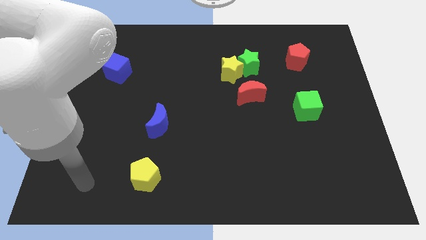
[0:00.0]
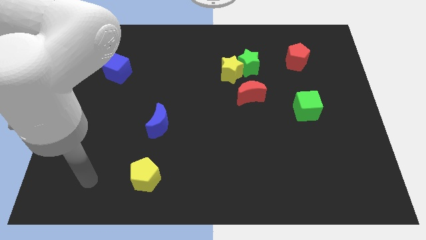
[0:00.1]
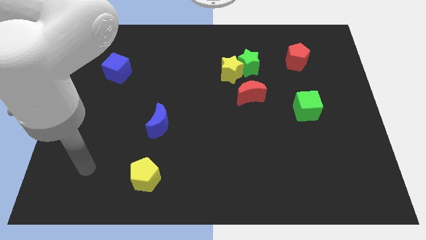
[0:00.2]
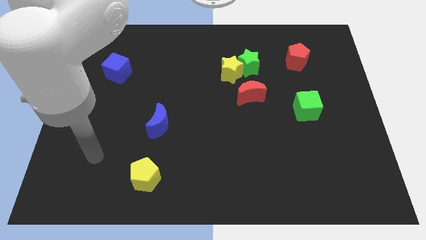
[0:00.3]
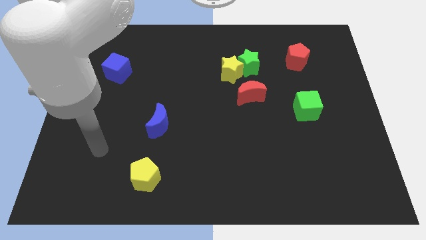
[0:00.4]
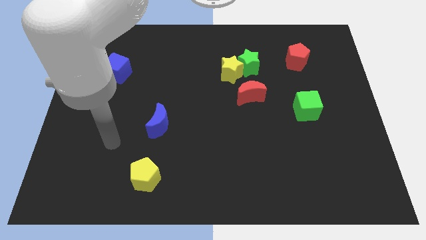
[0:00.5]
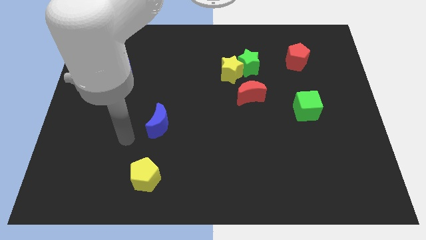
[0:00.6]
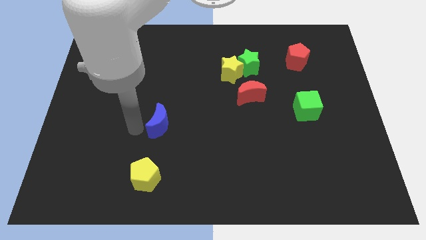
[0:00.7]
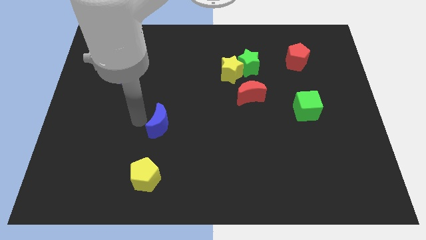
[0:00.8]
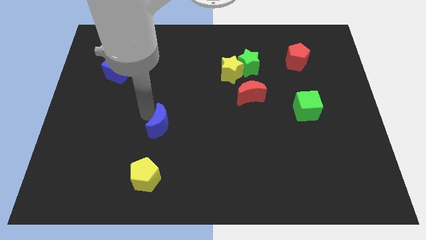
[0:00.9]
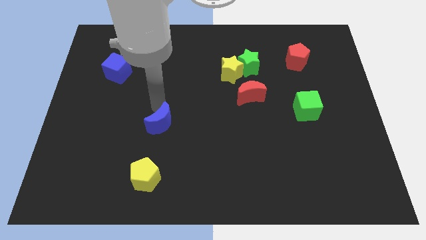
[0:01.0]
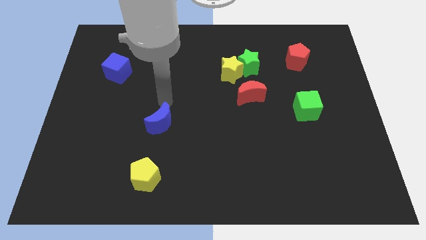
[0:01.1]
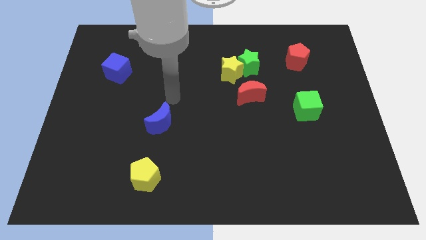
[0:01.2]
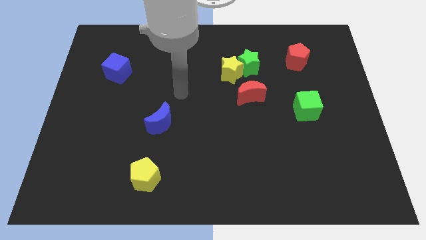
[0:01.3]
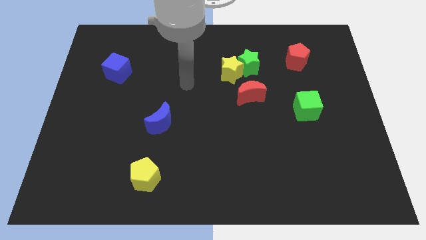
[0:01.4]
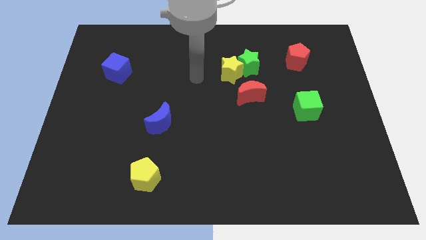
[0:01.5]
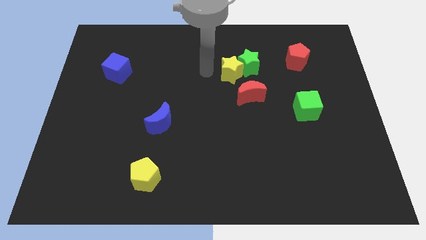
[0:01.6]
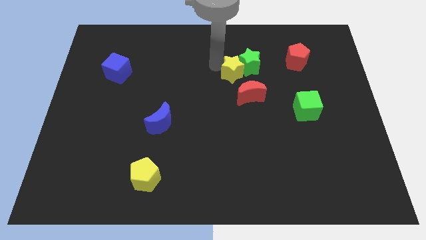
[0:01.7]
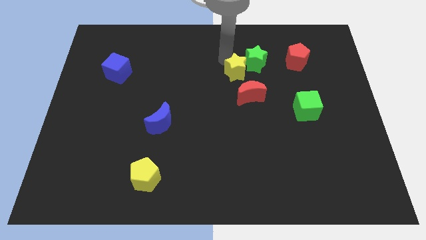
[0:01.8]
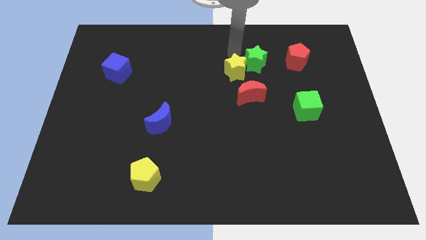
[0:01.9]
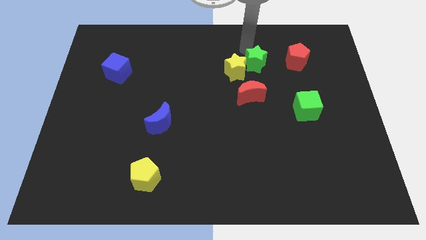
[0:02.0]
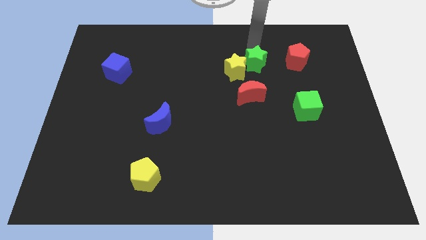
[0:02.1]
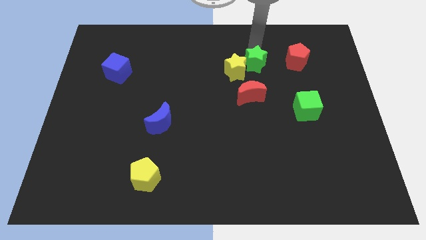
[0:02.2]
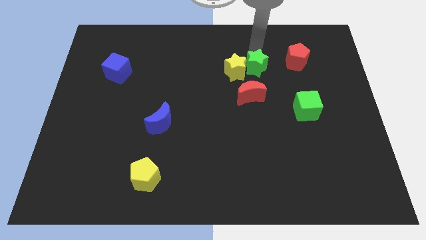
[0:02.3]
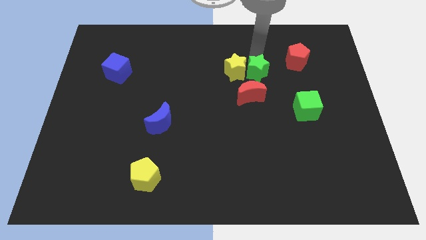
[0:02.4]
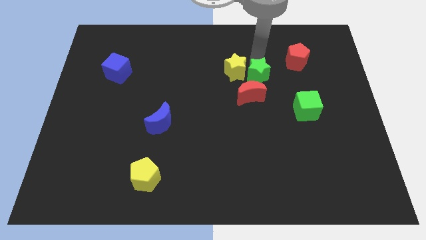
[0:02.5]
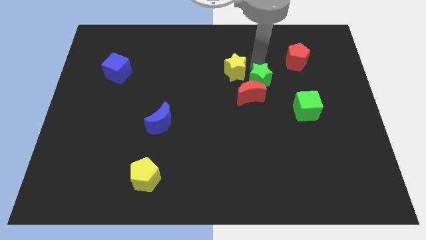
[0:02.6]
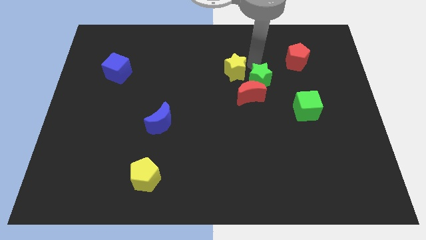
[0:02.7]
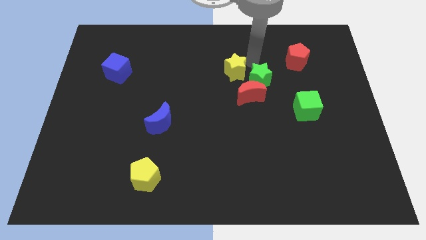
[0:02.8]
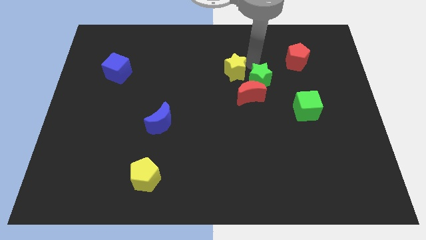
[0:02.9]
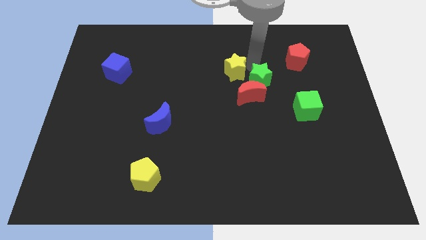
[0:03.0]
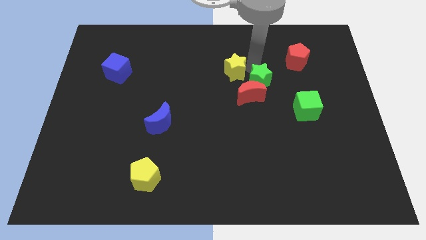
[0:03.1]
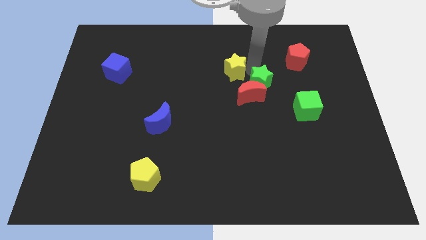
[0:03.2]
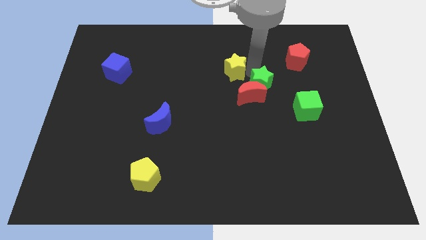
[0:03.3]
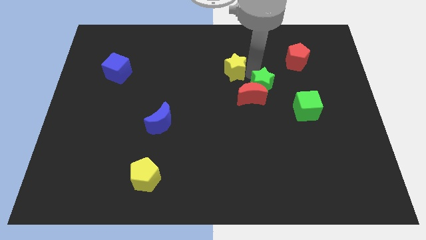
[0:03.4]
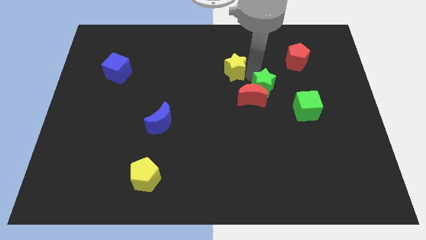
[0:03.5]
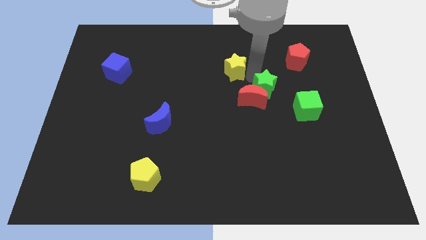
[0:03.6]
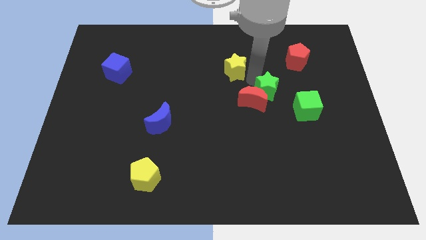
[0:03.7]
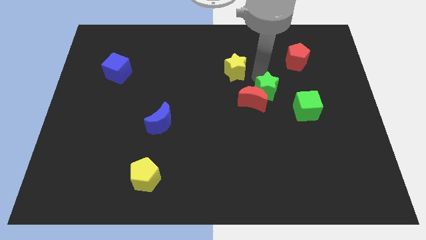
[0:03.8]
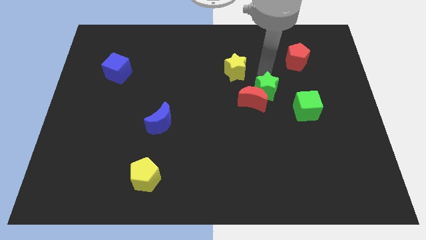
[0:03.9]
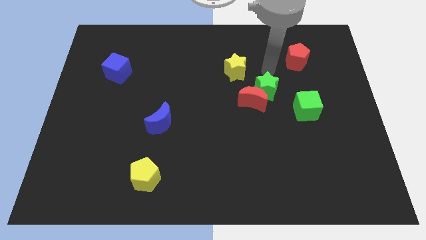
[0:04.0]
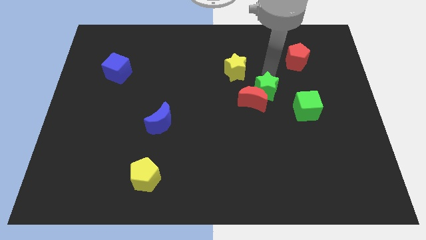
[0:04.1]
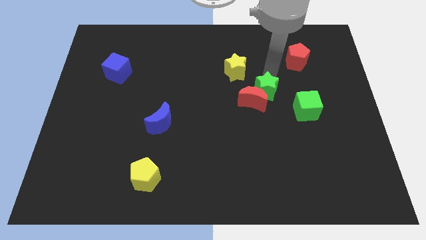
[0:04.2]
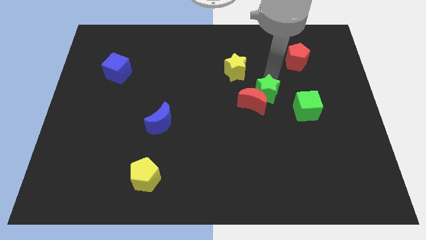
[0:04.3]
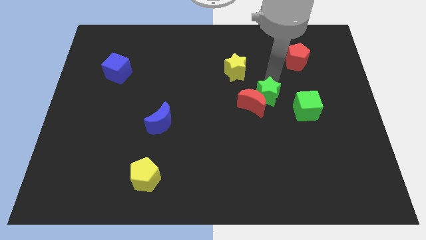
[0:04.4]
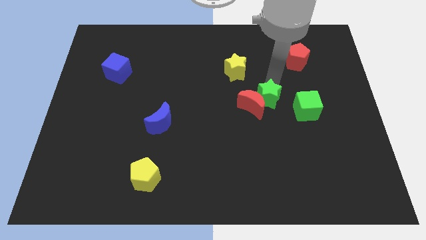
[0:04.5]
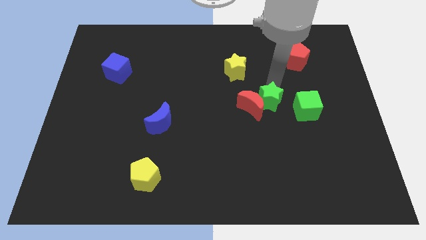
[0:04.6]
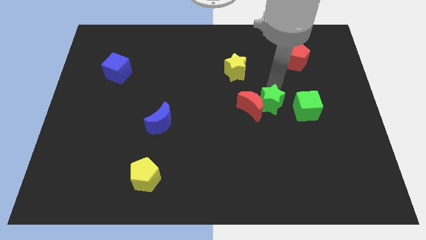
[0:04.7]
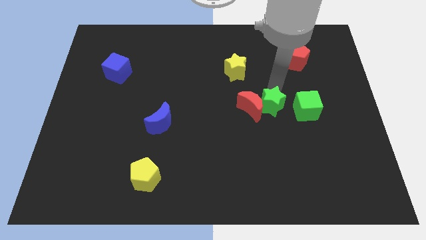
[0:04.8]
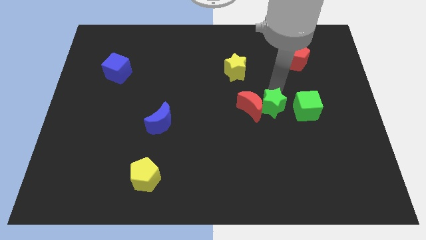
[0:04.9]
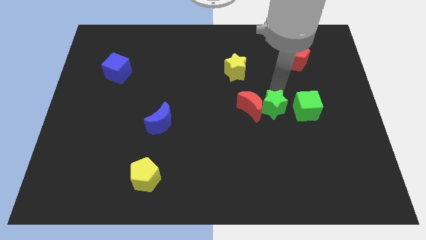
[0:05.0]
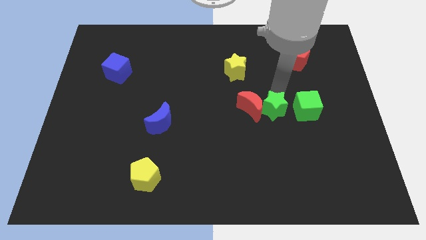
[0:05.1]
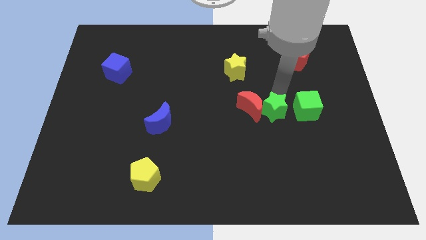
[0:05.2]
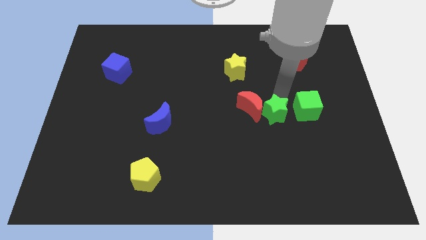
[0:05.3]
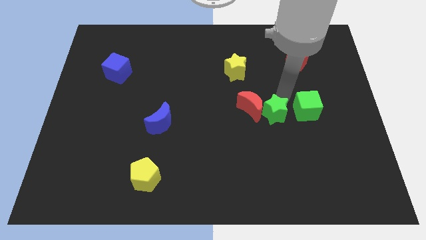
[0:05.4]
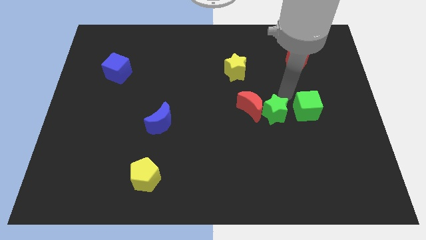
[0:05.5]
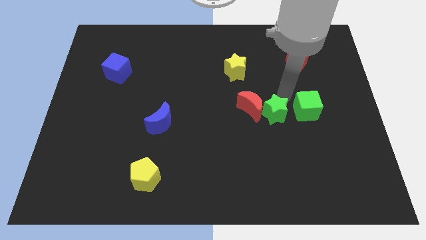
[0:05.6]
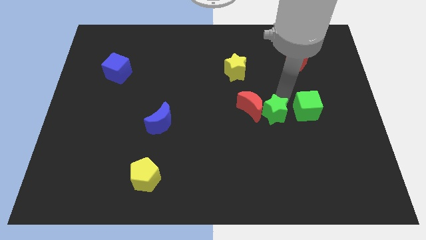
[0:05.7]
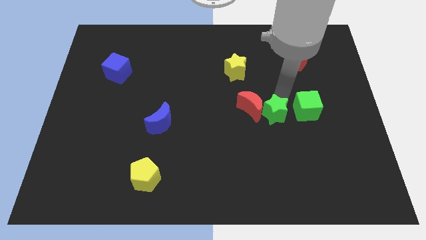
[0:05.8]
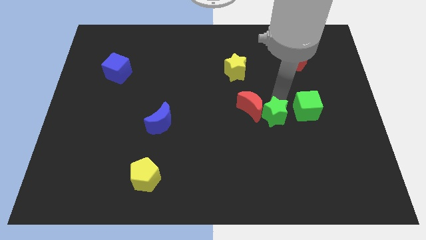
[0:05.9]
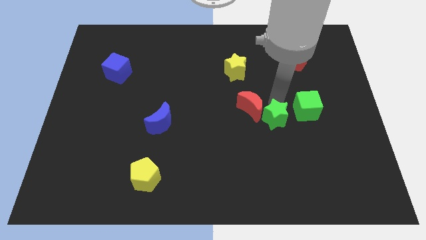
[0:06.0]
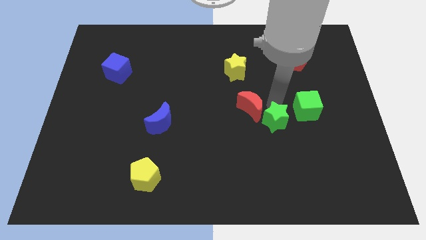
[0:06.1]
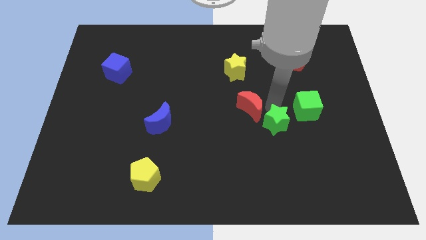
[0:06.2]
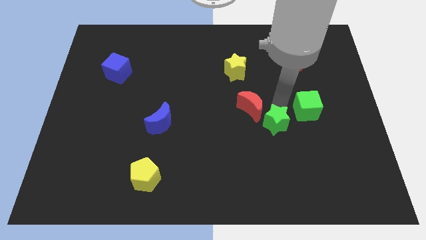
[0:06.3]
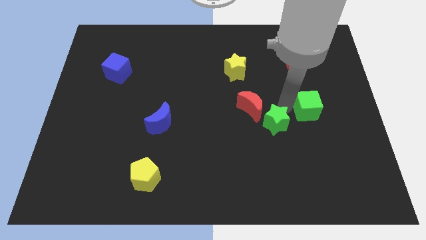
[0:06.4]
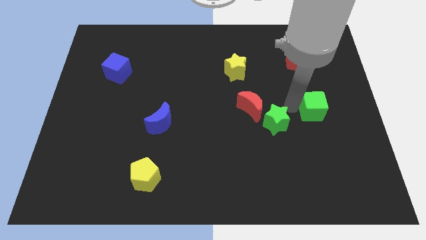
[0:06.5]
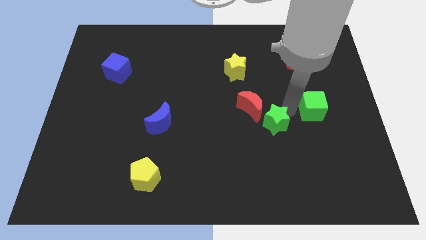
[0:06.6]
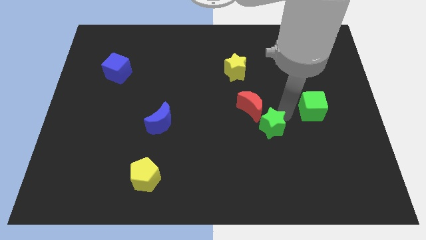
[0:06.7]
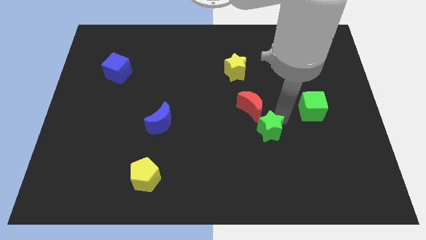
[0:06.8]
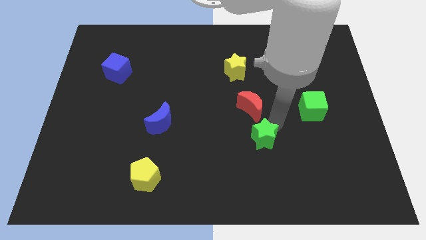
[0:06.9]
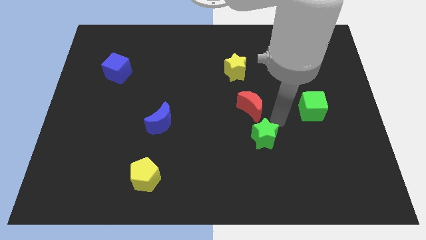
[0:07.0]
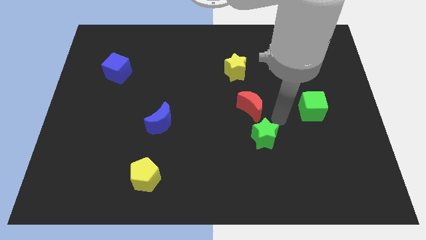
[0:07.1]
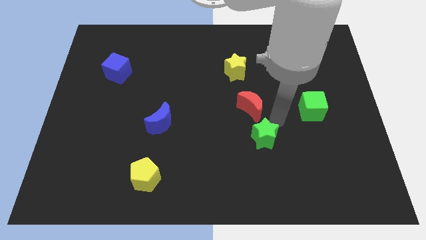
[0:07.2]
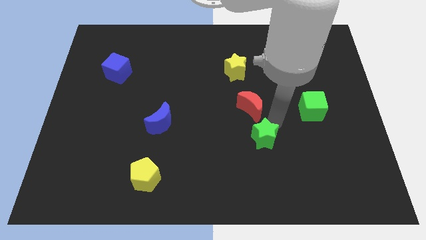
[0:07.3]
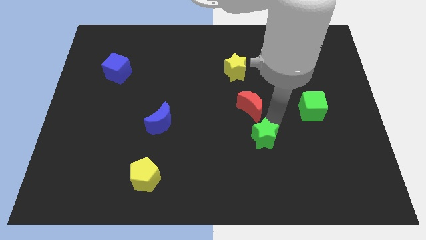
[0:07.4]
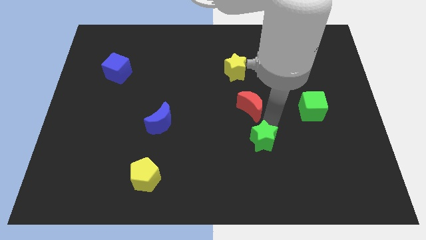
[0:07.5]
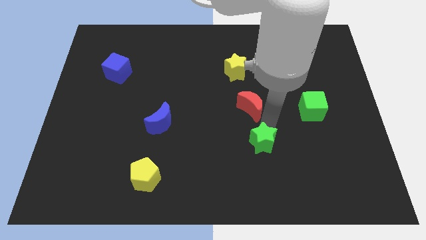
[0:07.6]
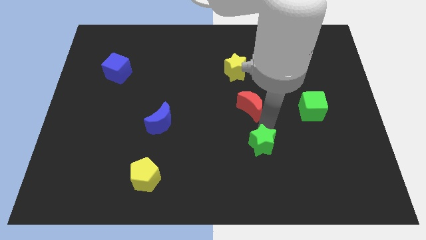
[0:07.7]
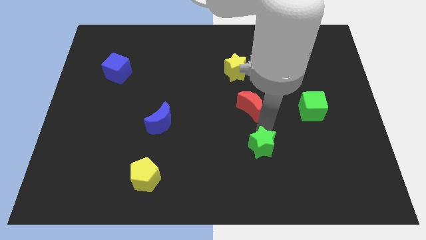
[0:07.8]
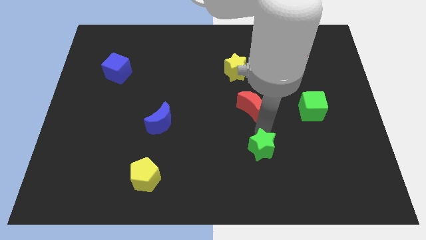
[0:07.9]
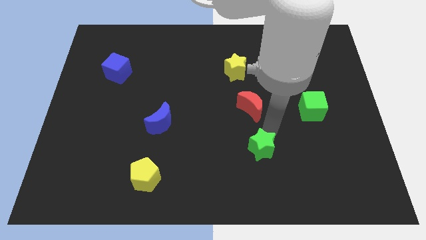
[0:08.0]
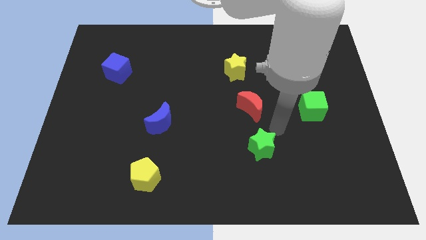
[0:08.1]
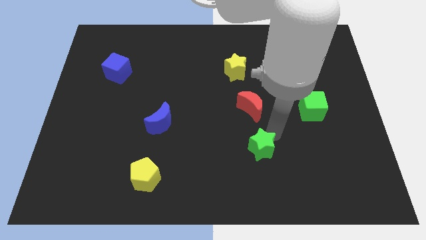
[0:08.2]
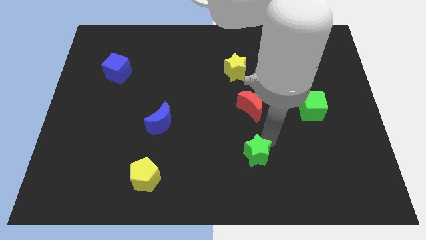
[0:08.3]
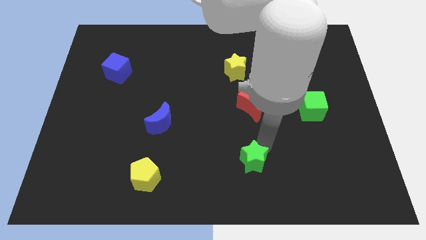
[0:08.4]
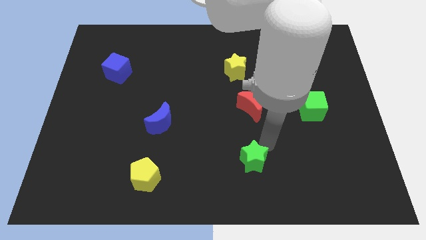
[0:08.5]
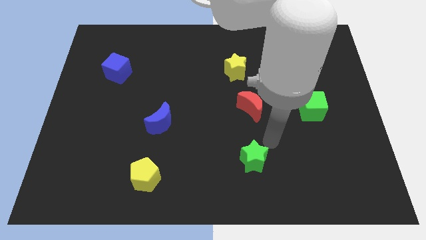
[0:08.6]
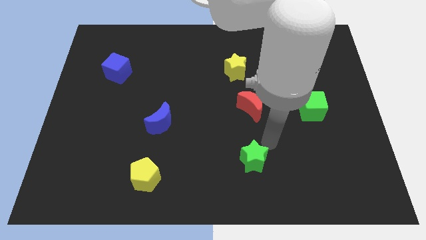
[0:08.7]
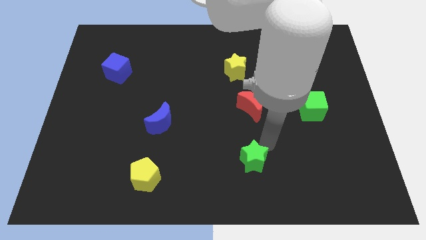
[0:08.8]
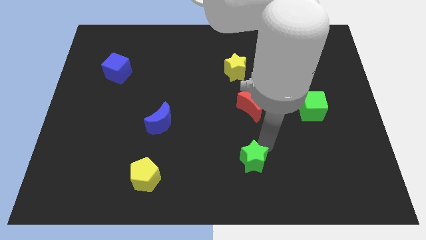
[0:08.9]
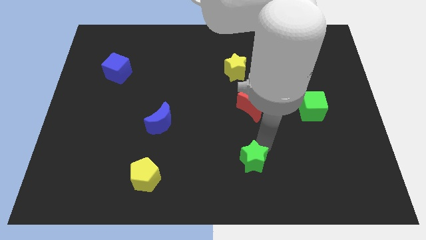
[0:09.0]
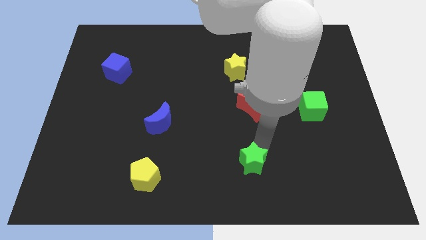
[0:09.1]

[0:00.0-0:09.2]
move the green star to the bottom side
